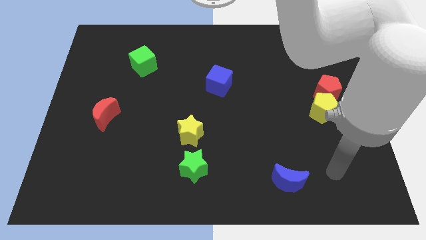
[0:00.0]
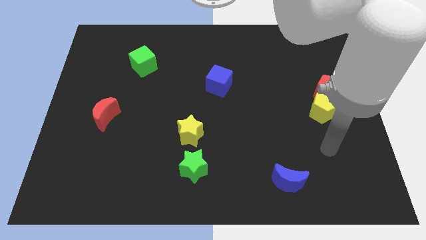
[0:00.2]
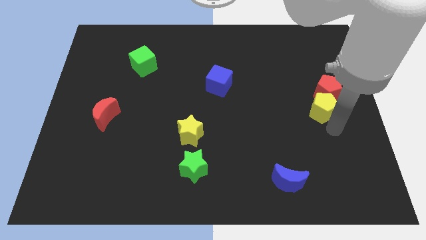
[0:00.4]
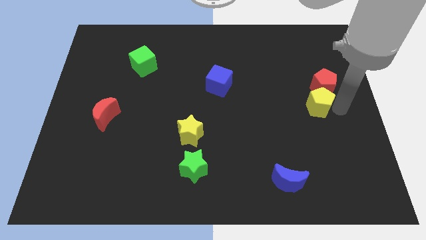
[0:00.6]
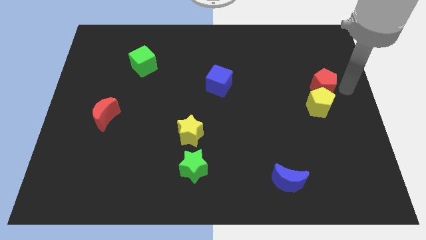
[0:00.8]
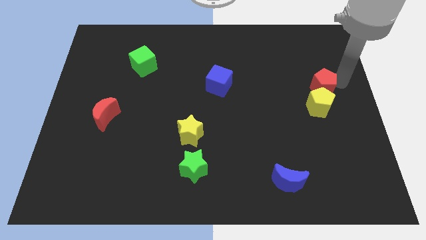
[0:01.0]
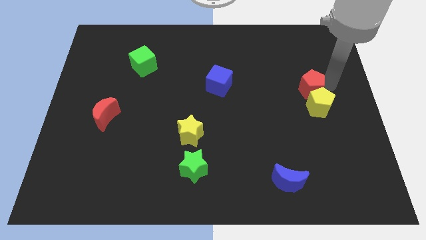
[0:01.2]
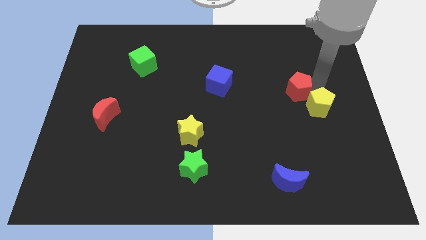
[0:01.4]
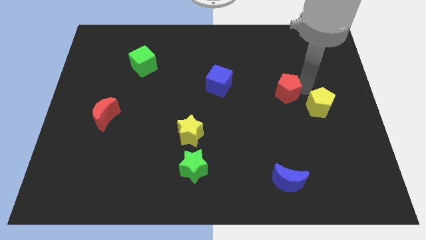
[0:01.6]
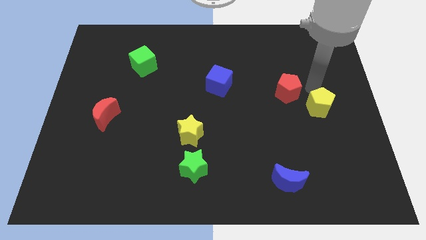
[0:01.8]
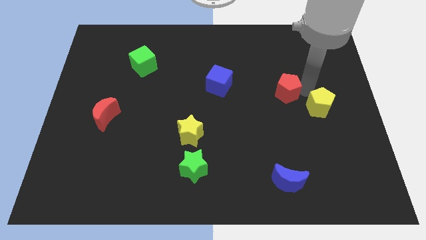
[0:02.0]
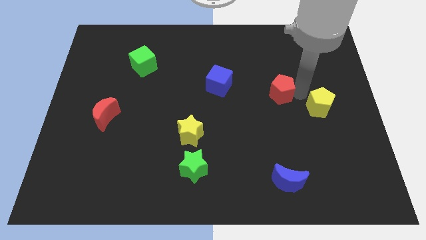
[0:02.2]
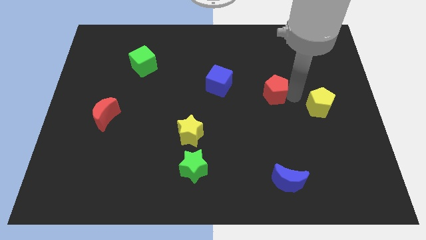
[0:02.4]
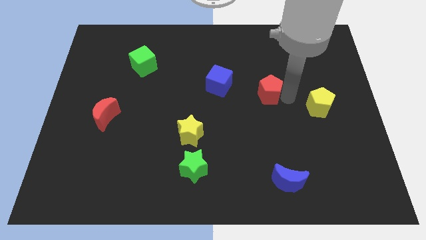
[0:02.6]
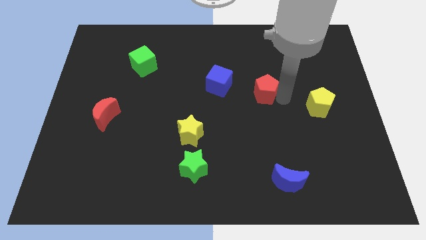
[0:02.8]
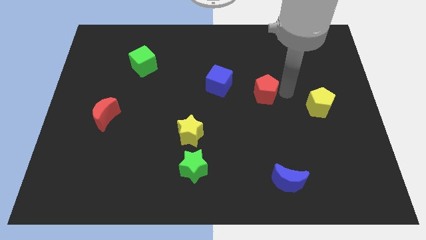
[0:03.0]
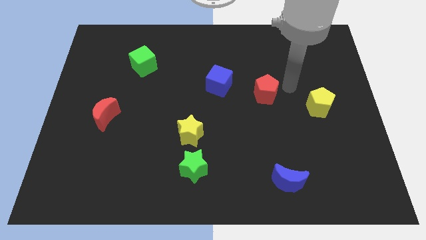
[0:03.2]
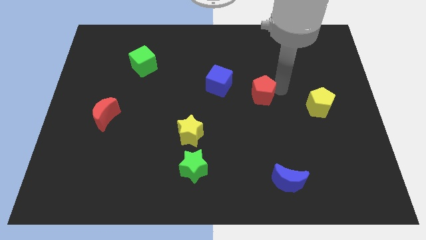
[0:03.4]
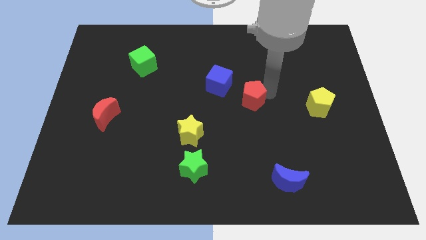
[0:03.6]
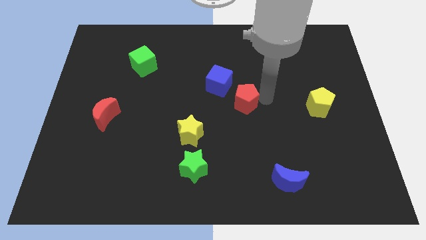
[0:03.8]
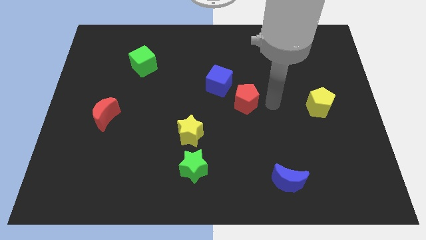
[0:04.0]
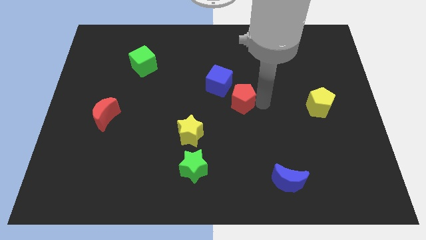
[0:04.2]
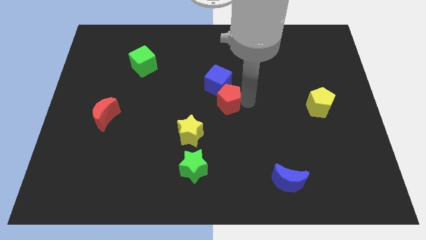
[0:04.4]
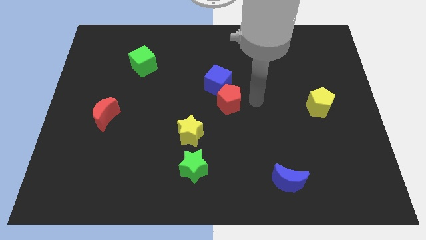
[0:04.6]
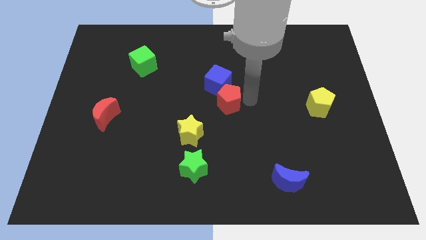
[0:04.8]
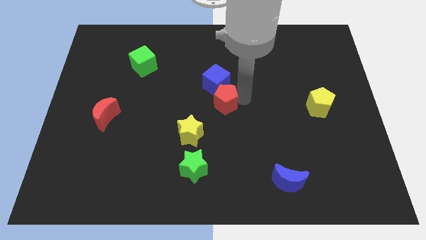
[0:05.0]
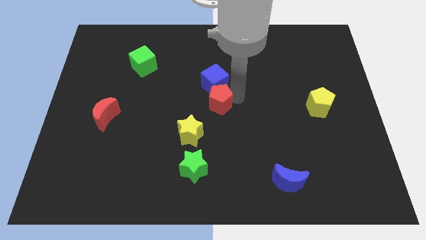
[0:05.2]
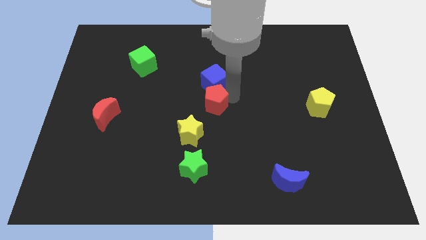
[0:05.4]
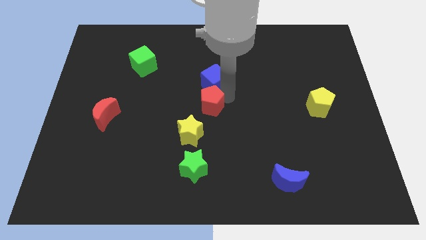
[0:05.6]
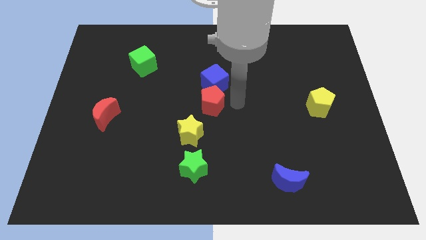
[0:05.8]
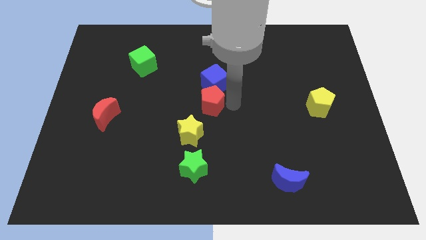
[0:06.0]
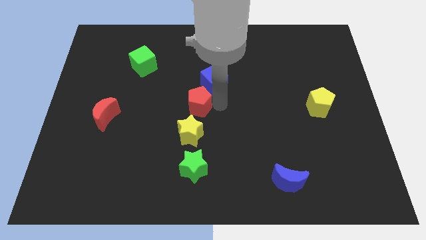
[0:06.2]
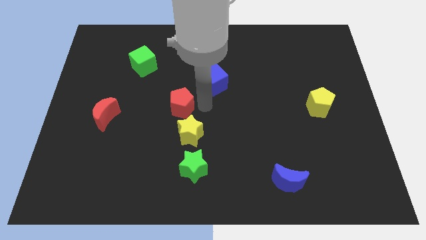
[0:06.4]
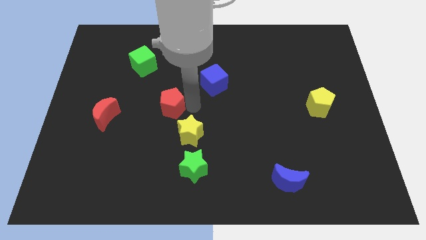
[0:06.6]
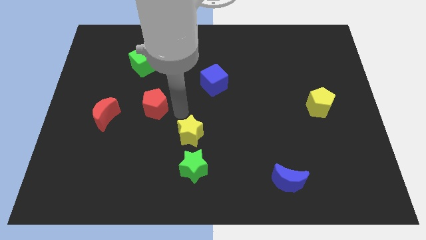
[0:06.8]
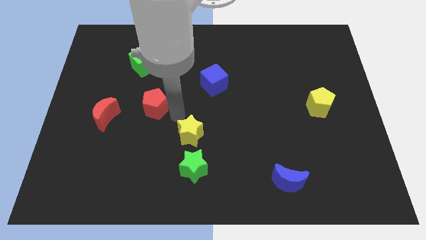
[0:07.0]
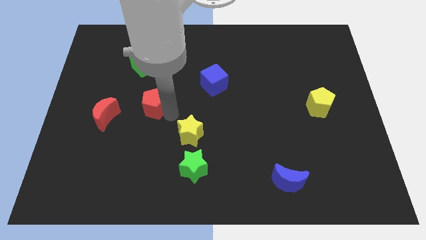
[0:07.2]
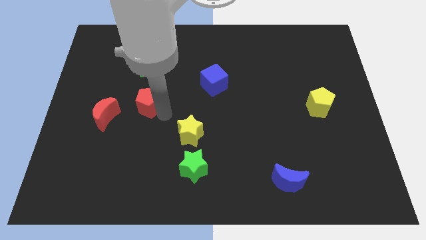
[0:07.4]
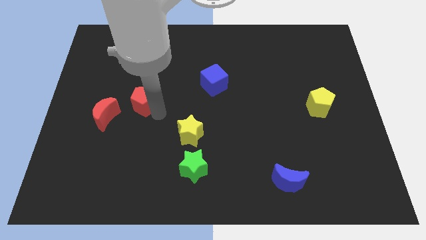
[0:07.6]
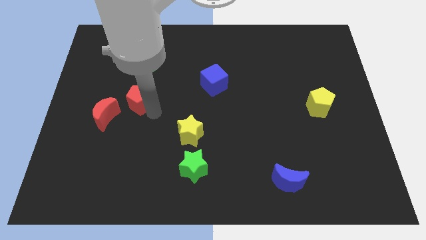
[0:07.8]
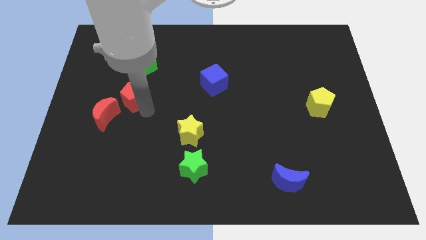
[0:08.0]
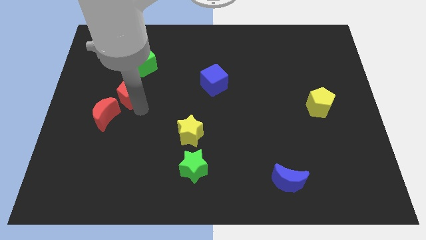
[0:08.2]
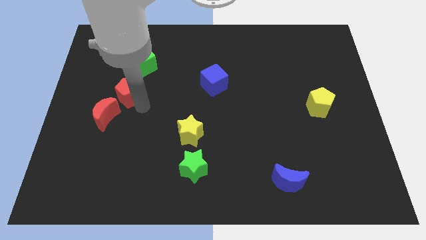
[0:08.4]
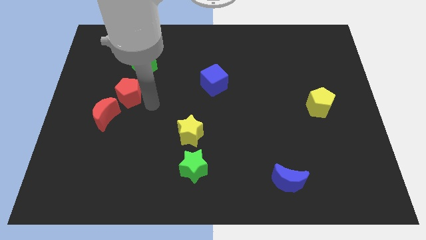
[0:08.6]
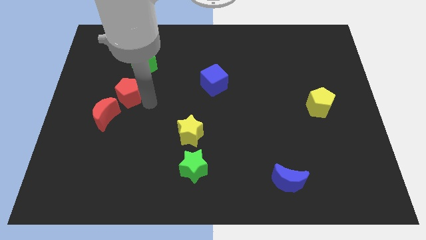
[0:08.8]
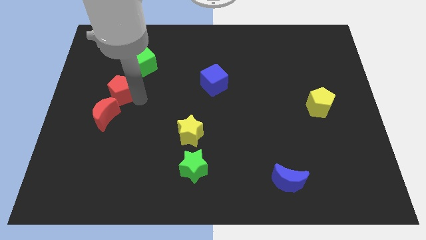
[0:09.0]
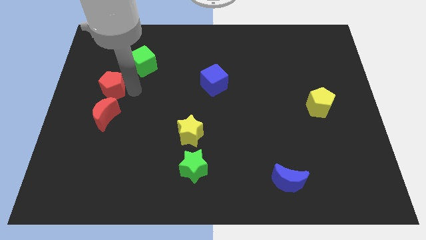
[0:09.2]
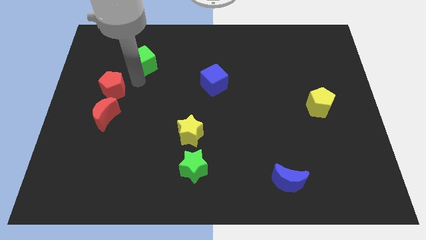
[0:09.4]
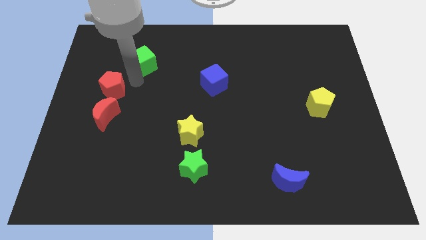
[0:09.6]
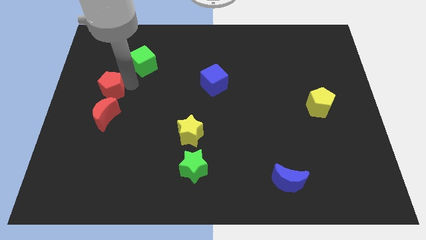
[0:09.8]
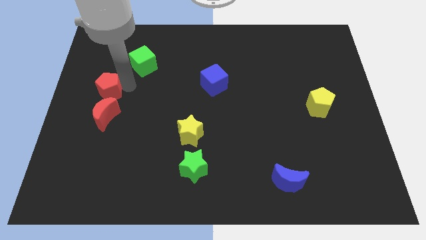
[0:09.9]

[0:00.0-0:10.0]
put the red pentagon to the center left

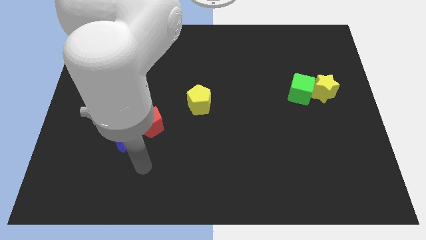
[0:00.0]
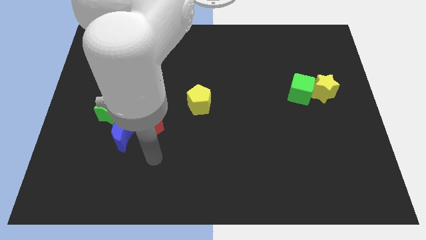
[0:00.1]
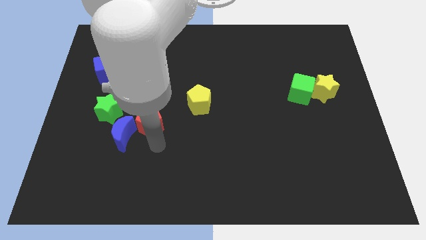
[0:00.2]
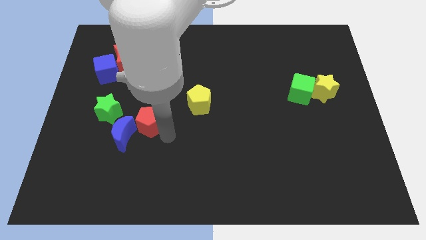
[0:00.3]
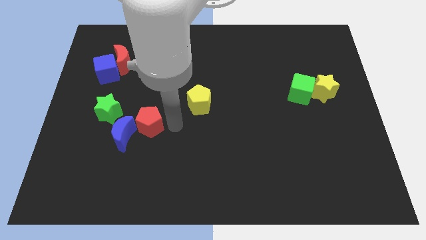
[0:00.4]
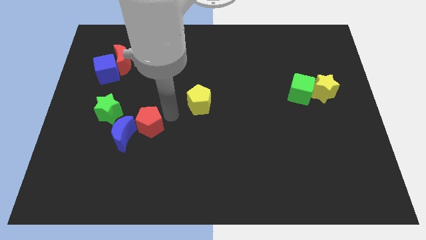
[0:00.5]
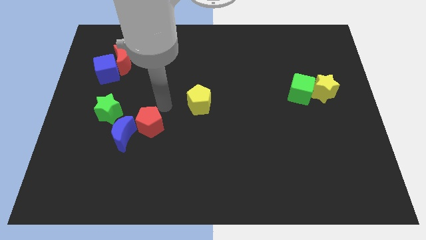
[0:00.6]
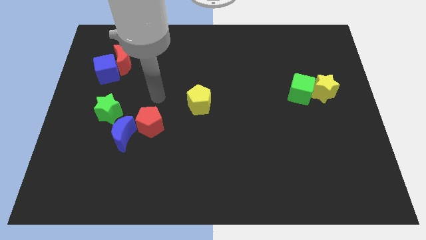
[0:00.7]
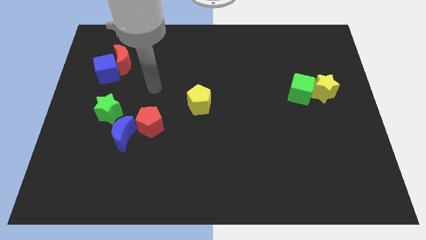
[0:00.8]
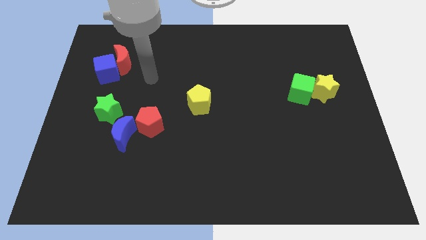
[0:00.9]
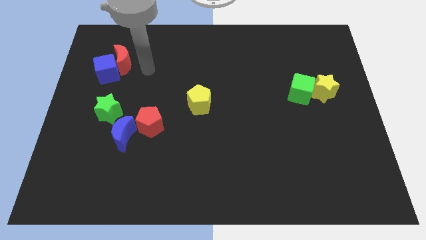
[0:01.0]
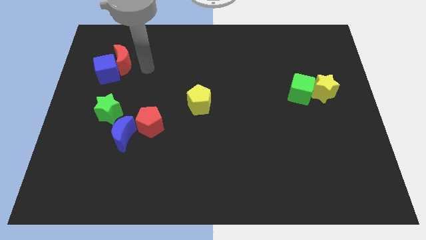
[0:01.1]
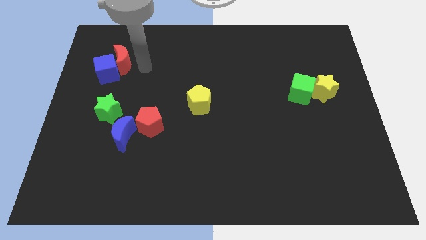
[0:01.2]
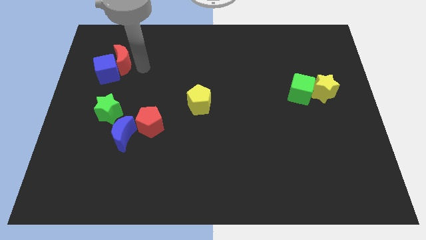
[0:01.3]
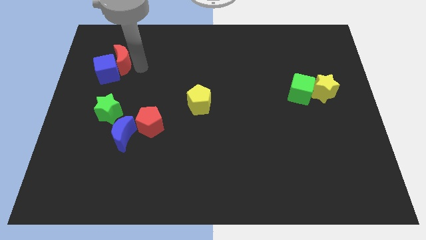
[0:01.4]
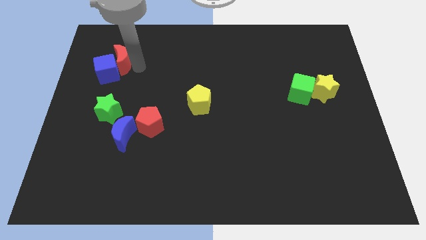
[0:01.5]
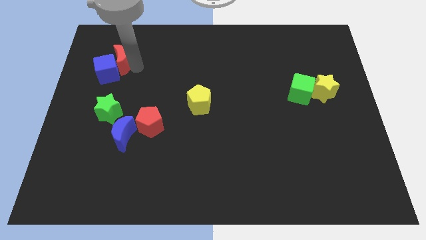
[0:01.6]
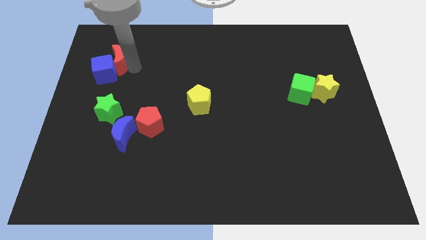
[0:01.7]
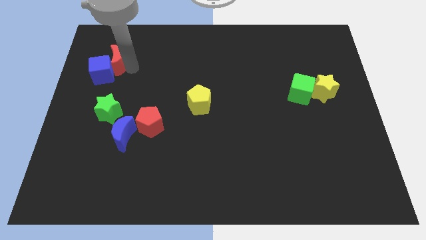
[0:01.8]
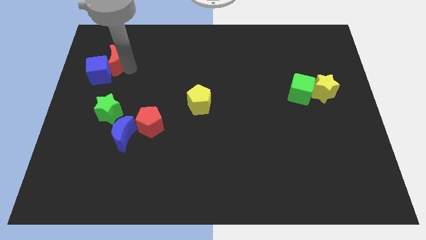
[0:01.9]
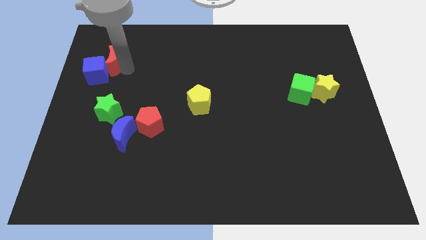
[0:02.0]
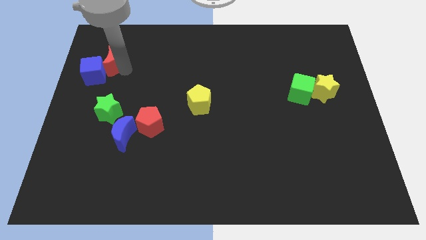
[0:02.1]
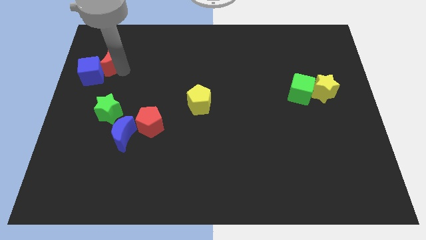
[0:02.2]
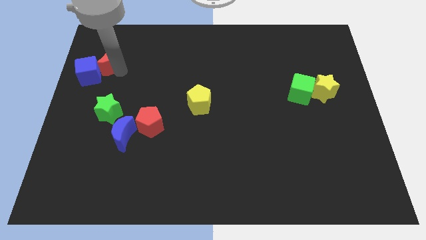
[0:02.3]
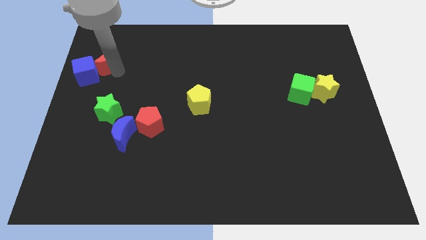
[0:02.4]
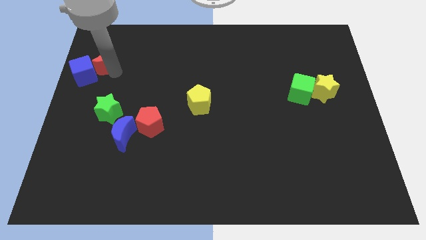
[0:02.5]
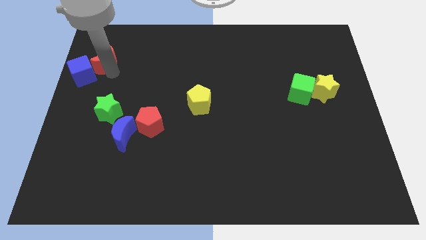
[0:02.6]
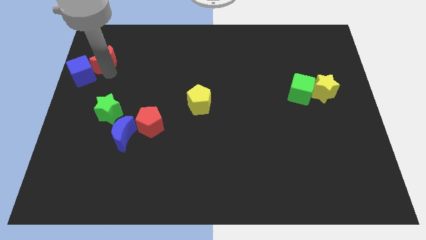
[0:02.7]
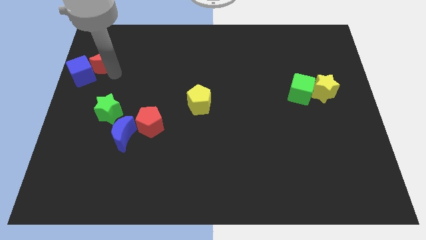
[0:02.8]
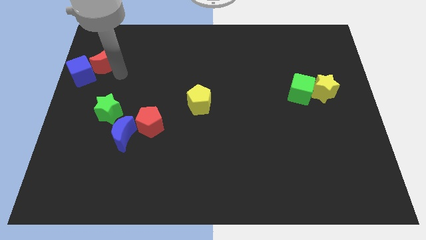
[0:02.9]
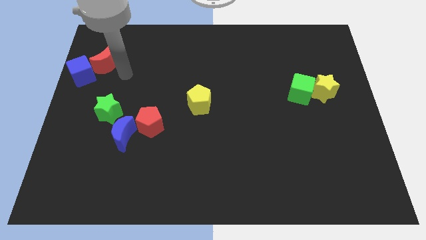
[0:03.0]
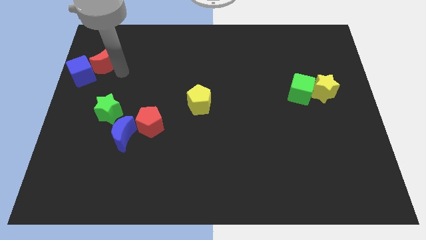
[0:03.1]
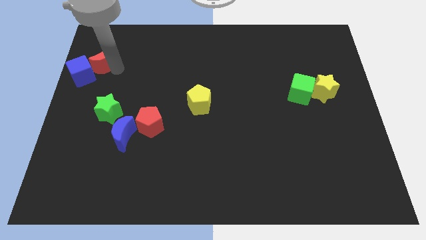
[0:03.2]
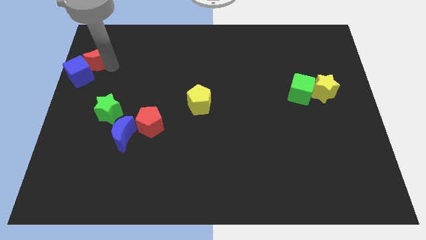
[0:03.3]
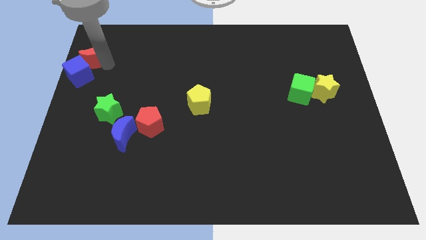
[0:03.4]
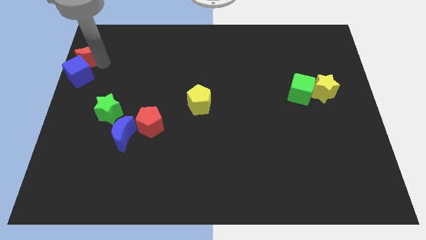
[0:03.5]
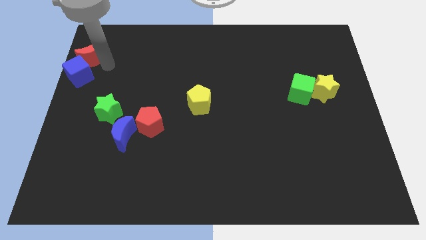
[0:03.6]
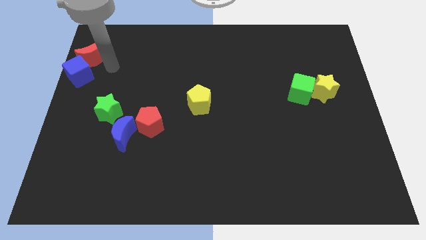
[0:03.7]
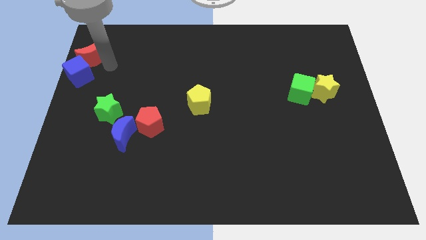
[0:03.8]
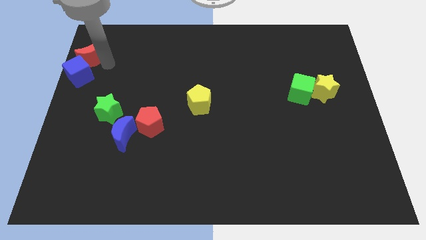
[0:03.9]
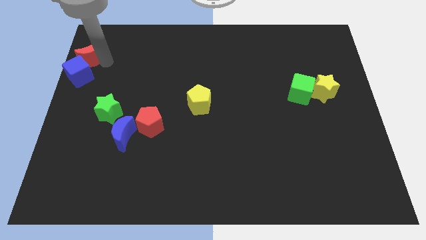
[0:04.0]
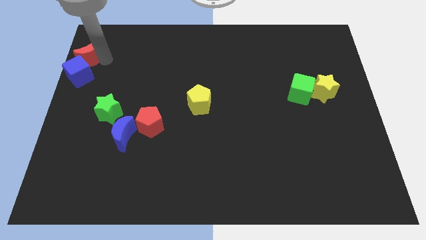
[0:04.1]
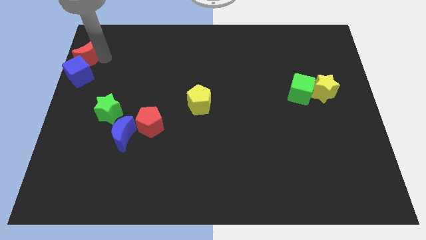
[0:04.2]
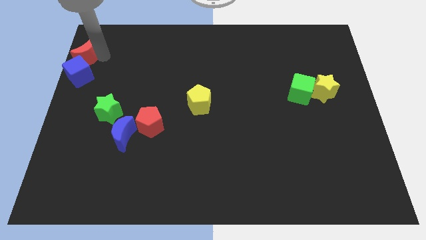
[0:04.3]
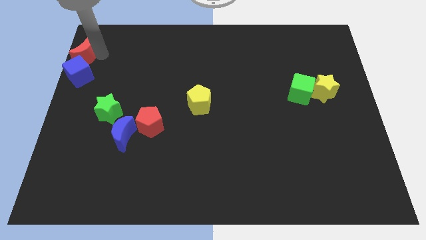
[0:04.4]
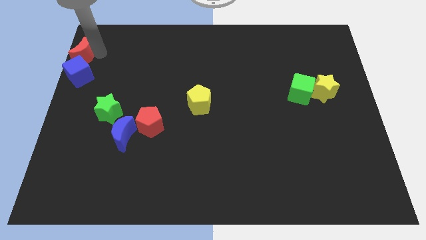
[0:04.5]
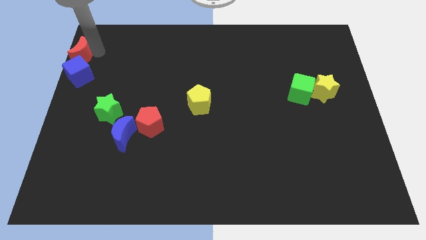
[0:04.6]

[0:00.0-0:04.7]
slide the red moon to the top left
